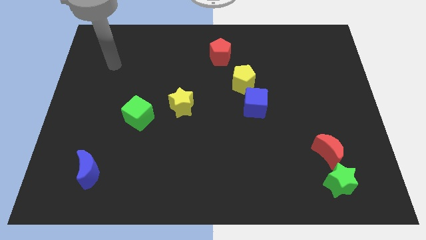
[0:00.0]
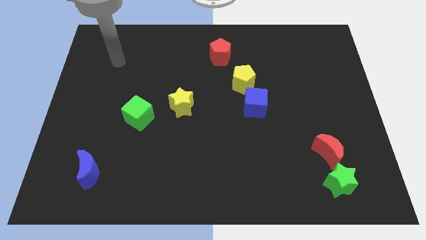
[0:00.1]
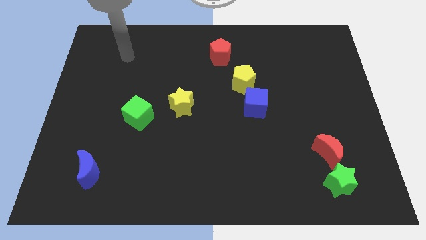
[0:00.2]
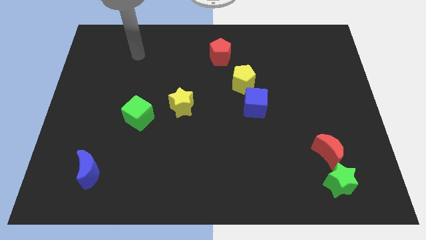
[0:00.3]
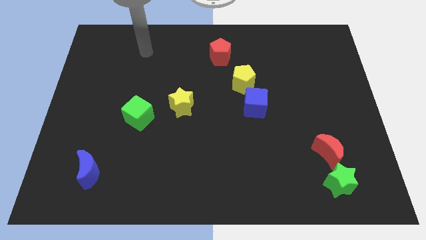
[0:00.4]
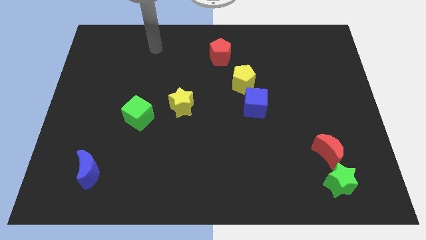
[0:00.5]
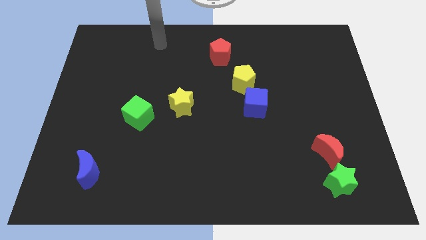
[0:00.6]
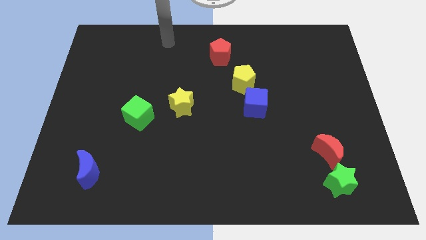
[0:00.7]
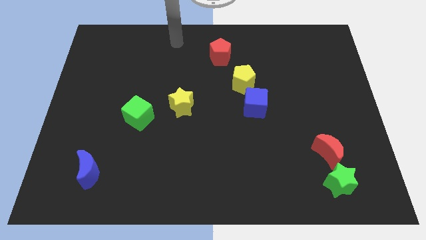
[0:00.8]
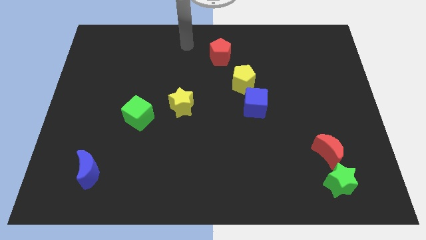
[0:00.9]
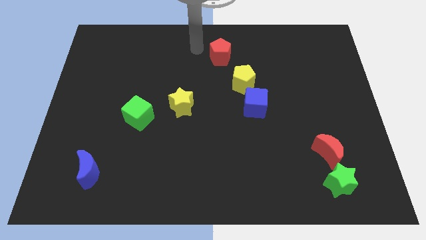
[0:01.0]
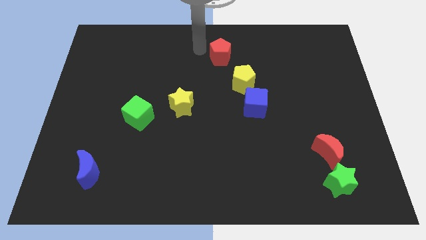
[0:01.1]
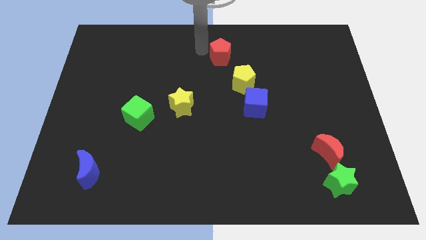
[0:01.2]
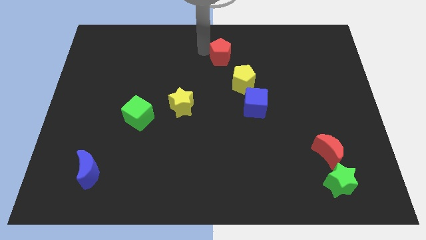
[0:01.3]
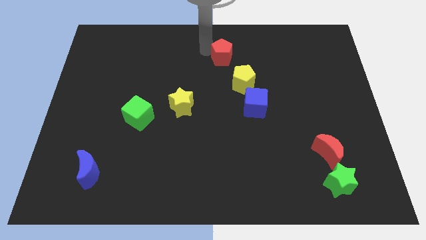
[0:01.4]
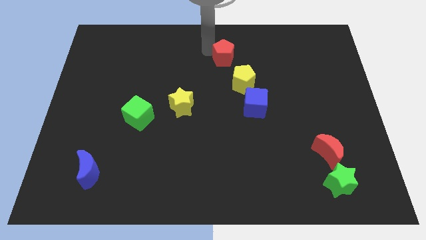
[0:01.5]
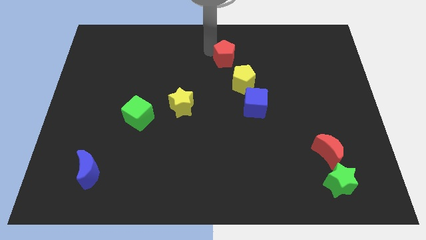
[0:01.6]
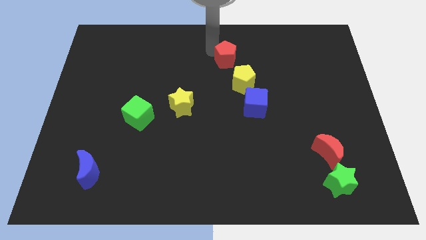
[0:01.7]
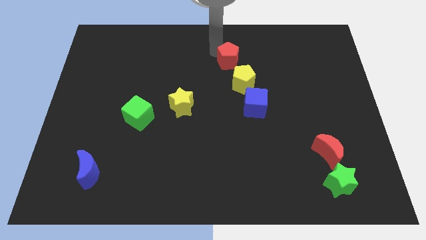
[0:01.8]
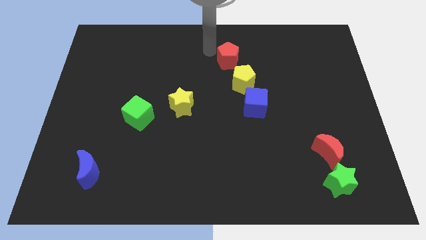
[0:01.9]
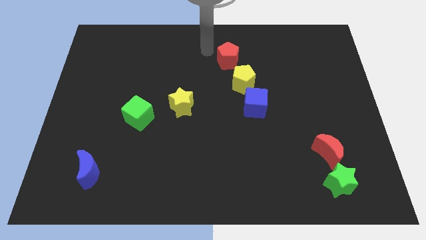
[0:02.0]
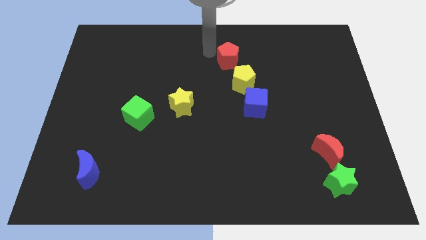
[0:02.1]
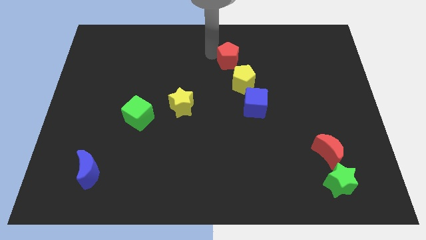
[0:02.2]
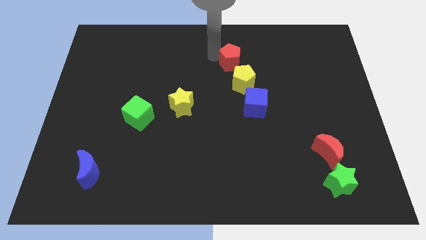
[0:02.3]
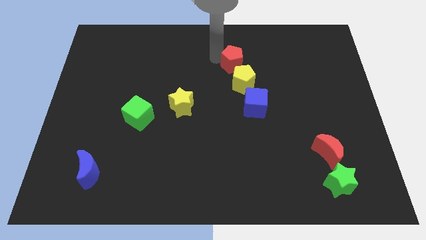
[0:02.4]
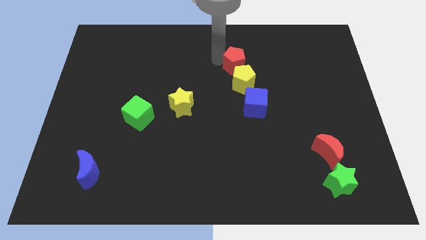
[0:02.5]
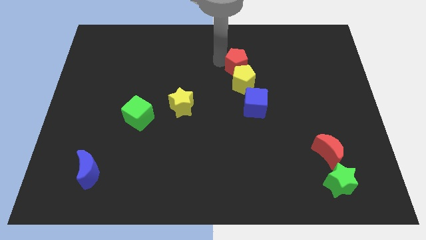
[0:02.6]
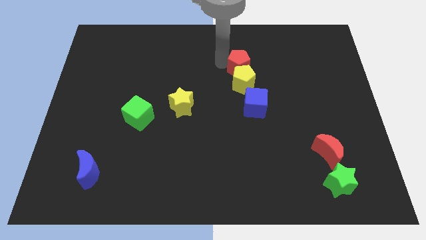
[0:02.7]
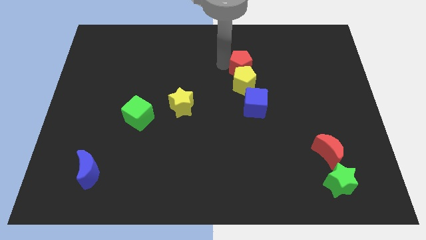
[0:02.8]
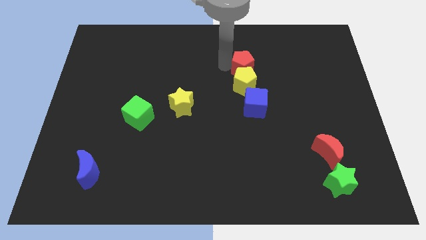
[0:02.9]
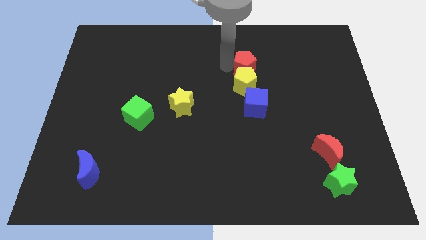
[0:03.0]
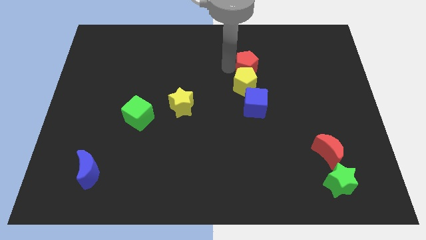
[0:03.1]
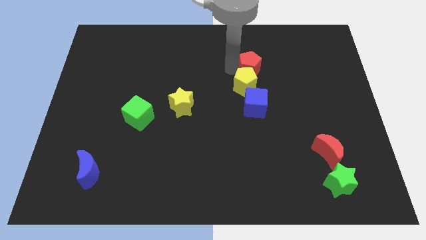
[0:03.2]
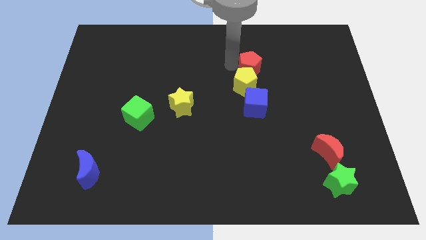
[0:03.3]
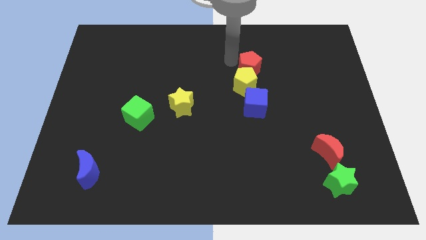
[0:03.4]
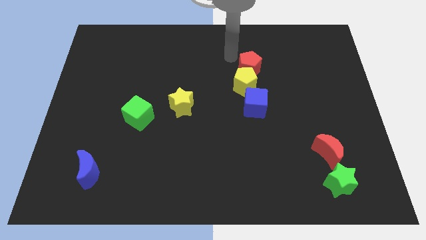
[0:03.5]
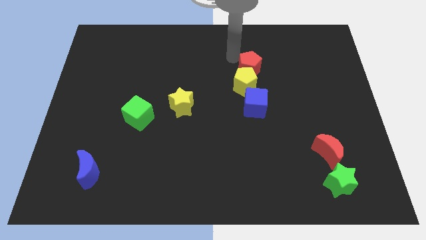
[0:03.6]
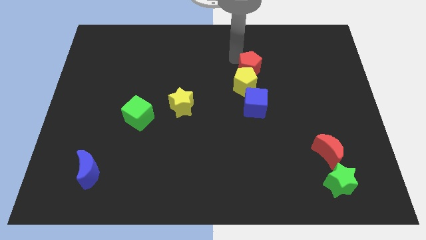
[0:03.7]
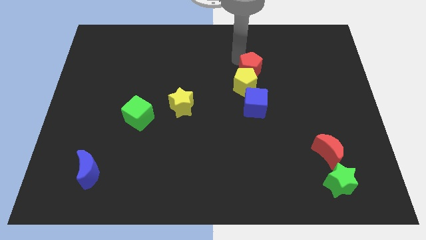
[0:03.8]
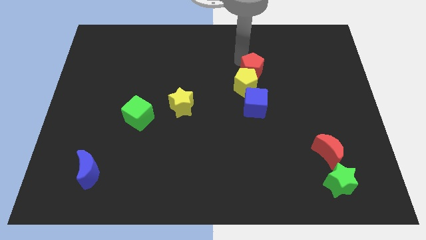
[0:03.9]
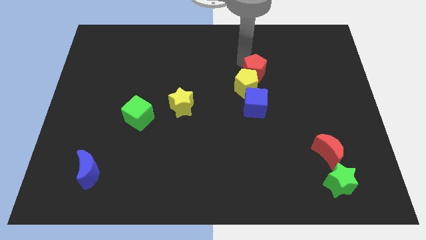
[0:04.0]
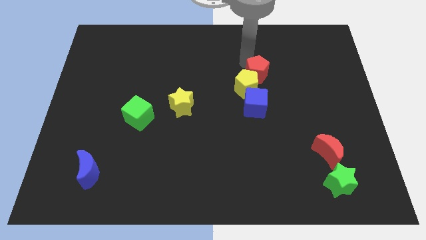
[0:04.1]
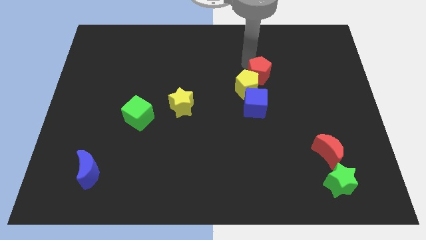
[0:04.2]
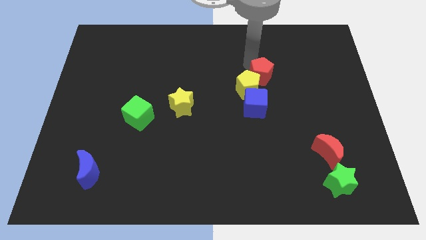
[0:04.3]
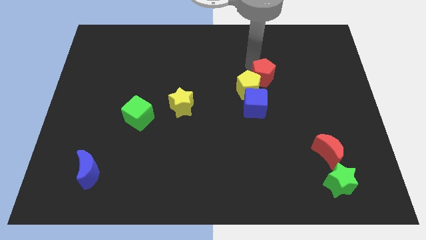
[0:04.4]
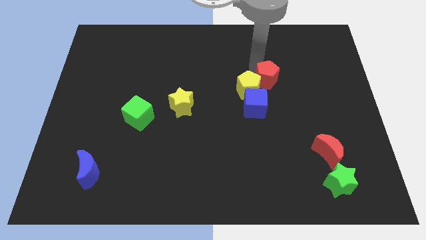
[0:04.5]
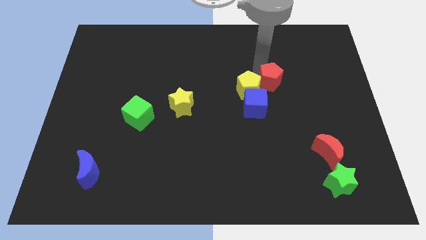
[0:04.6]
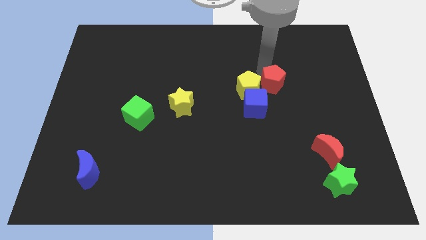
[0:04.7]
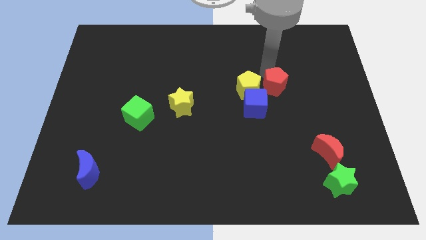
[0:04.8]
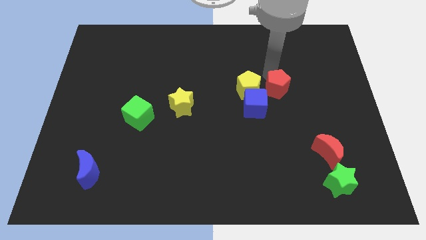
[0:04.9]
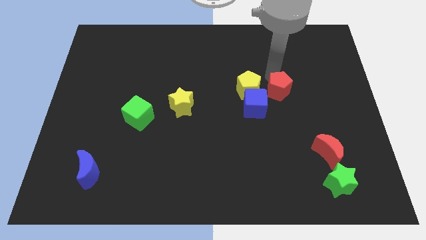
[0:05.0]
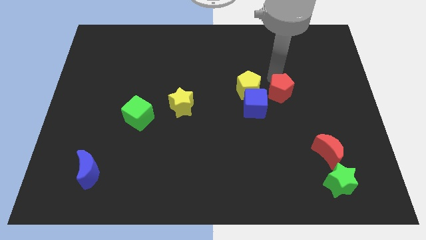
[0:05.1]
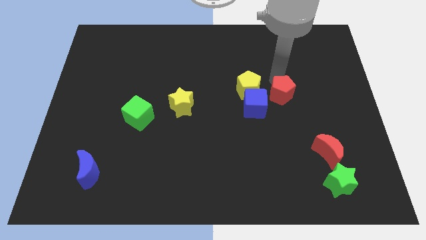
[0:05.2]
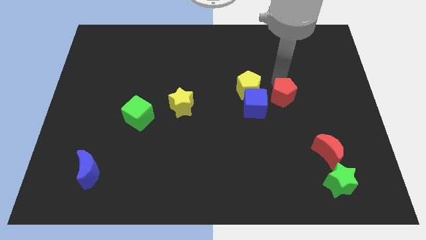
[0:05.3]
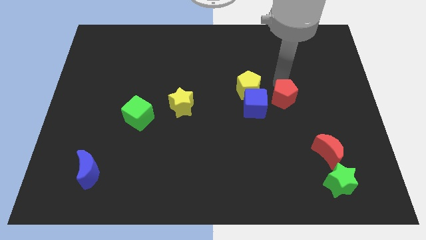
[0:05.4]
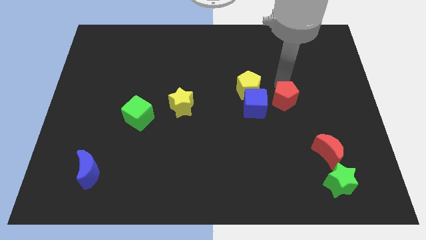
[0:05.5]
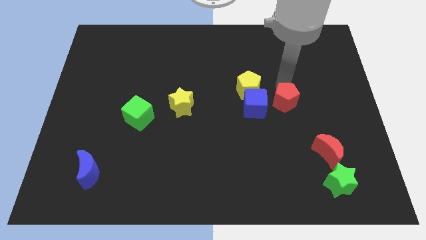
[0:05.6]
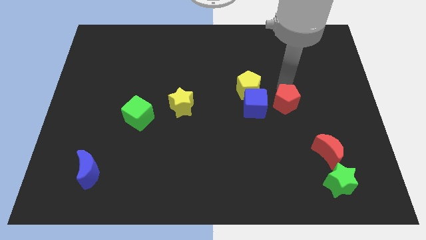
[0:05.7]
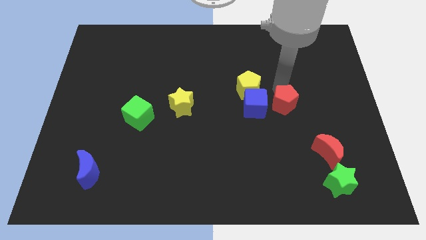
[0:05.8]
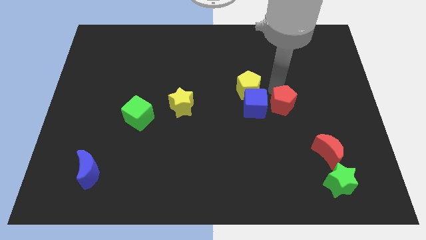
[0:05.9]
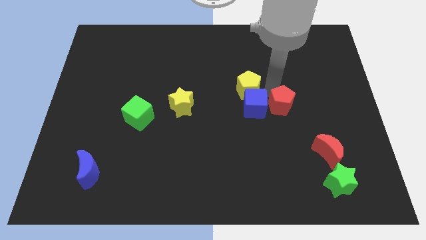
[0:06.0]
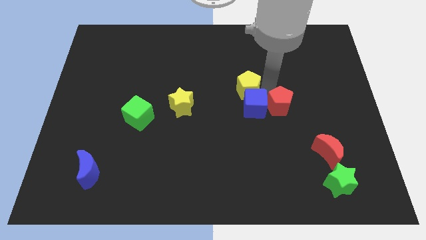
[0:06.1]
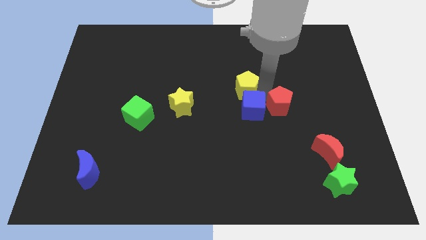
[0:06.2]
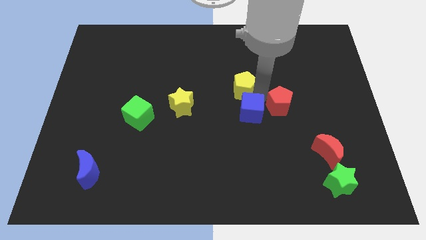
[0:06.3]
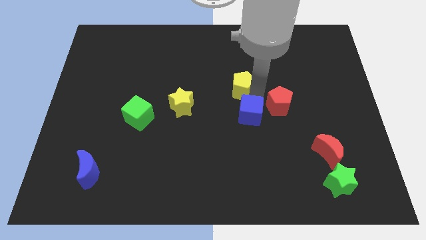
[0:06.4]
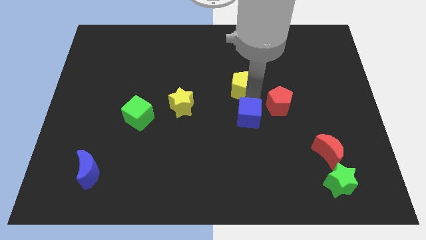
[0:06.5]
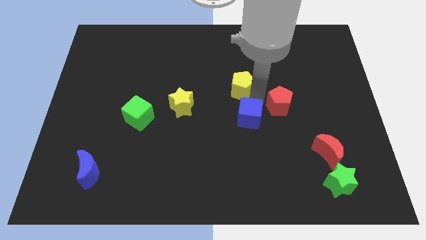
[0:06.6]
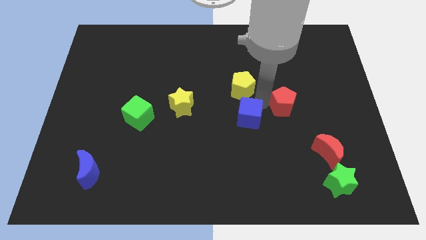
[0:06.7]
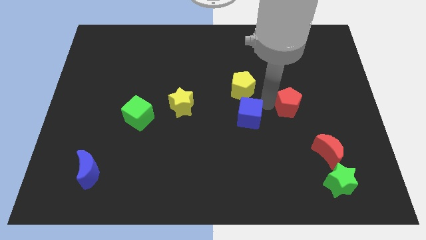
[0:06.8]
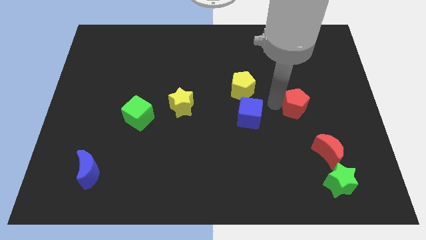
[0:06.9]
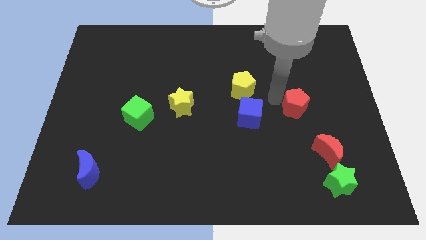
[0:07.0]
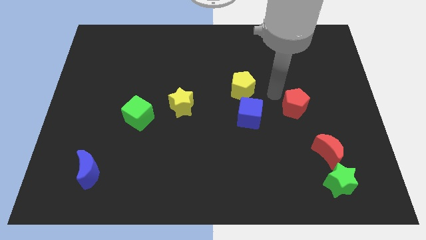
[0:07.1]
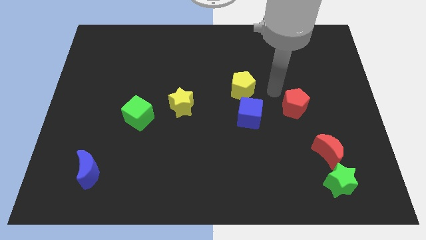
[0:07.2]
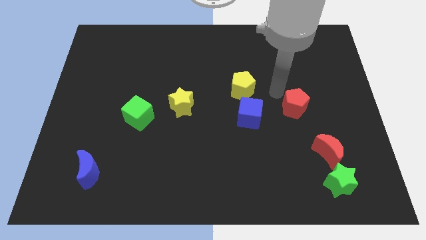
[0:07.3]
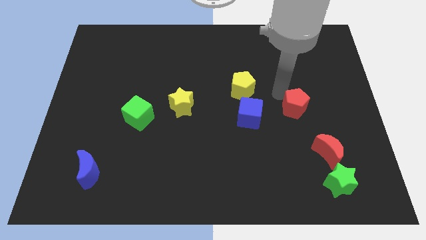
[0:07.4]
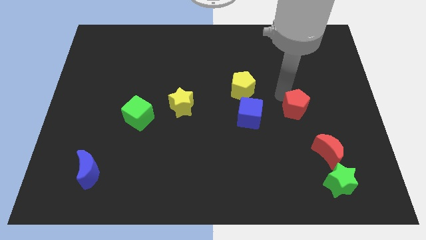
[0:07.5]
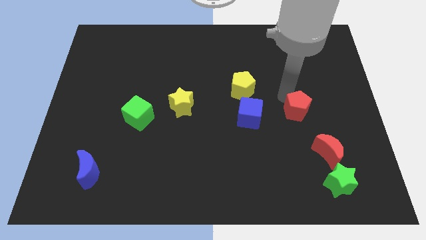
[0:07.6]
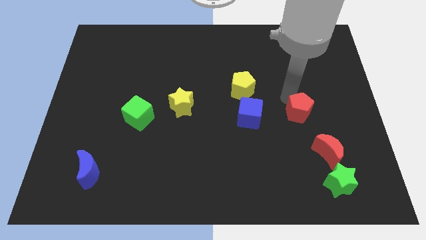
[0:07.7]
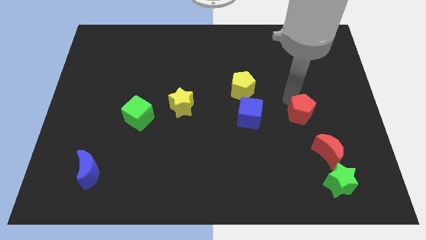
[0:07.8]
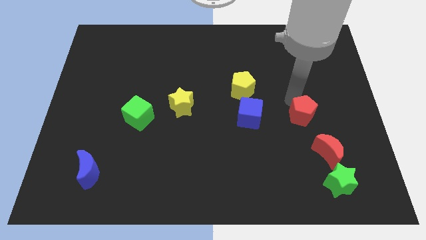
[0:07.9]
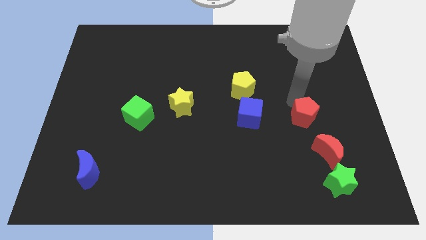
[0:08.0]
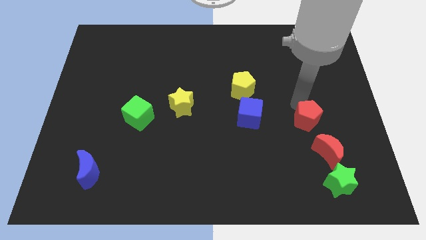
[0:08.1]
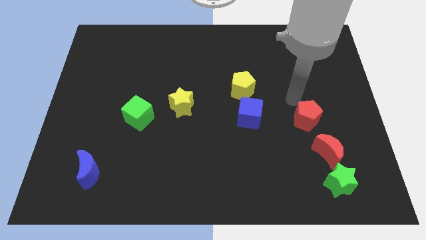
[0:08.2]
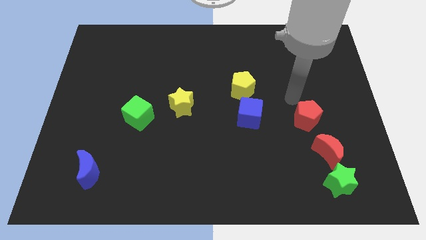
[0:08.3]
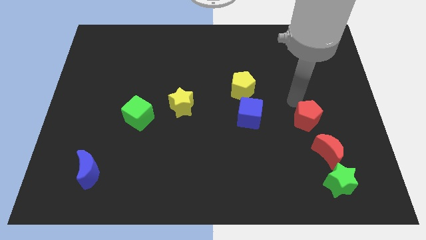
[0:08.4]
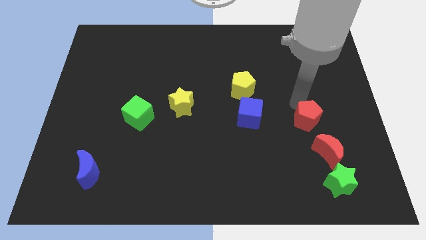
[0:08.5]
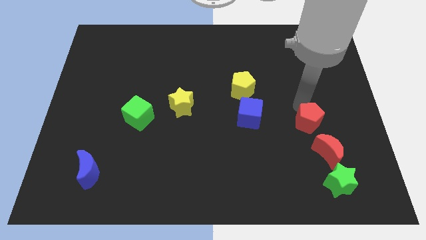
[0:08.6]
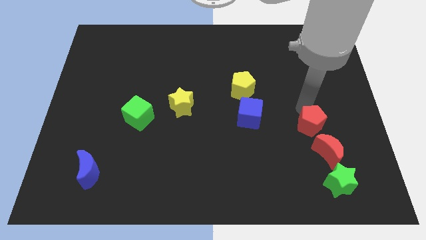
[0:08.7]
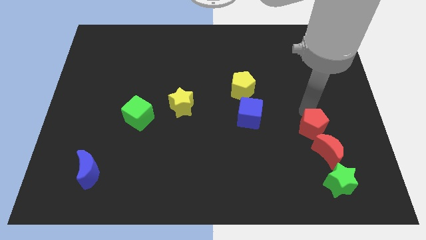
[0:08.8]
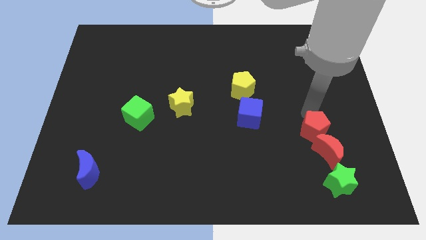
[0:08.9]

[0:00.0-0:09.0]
move the red pentagon close to the red moon
